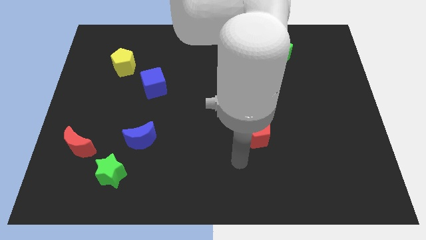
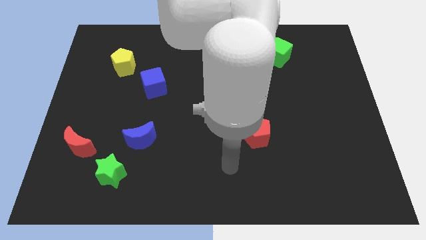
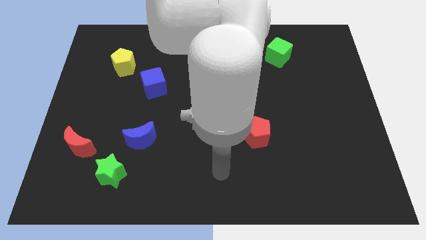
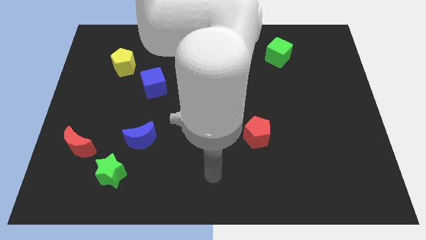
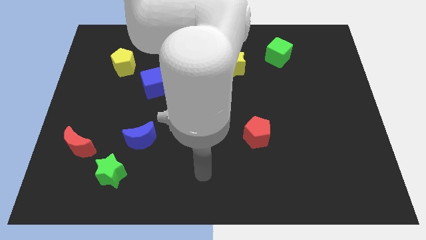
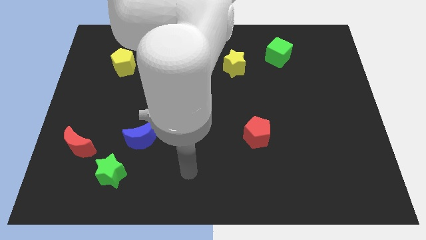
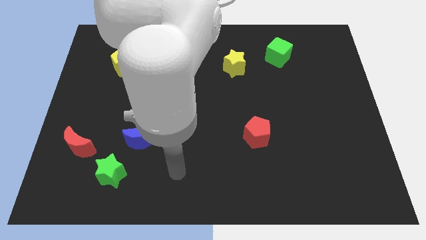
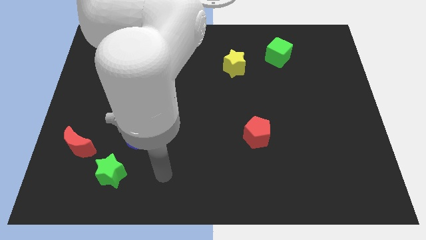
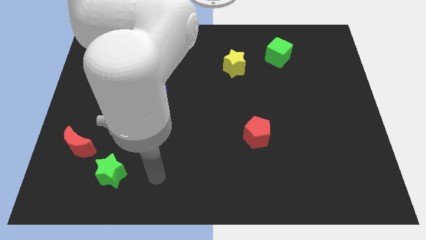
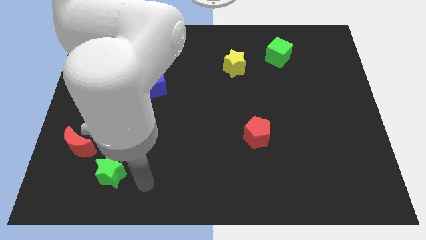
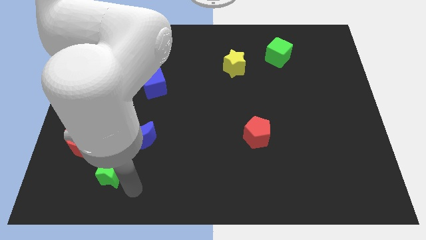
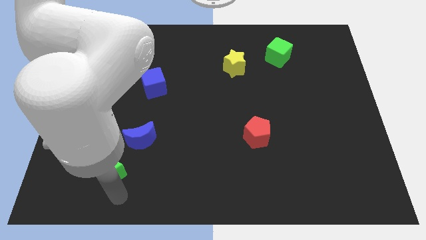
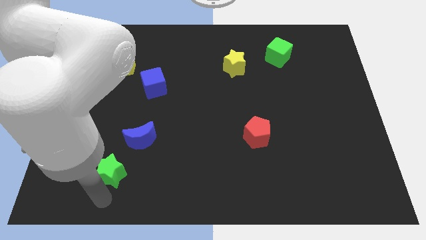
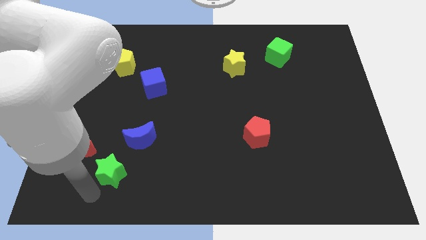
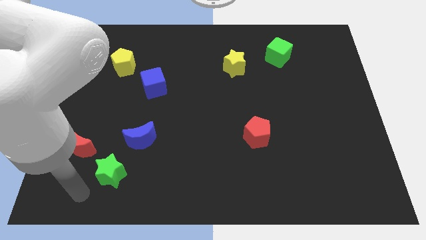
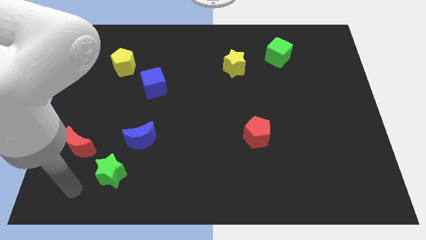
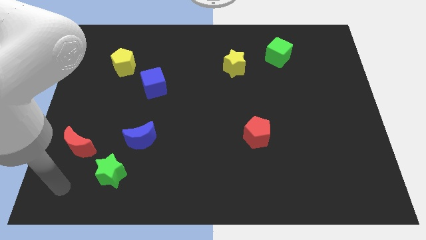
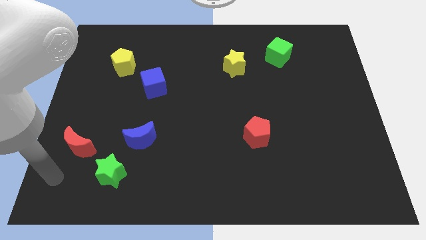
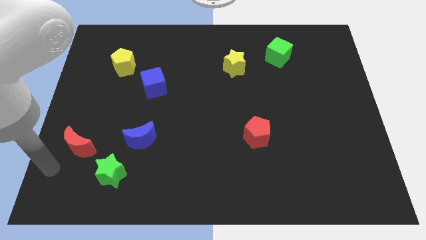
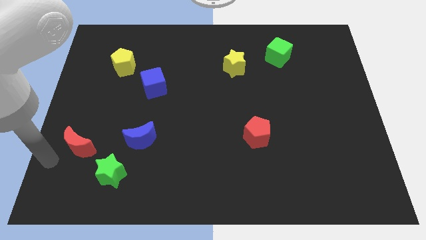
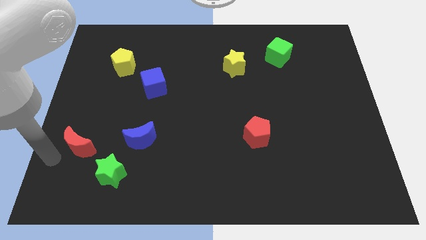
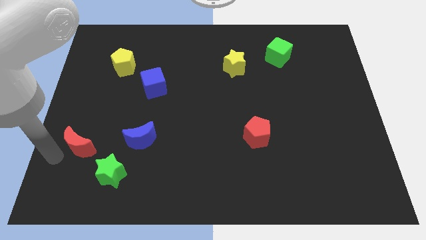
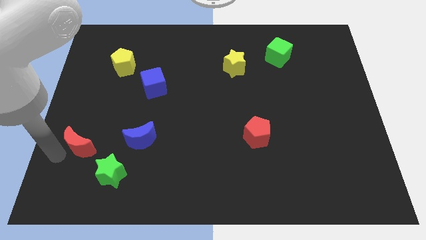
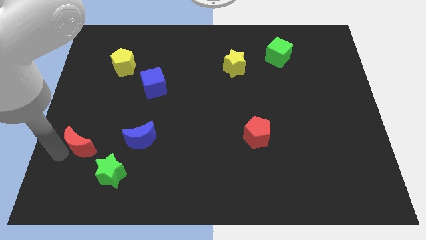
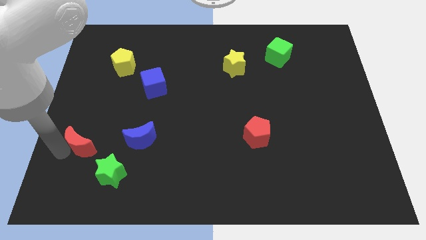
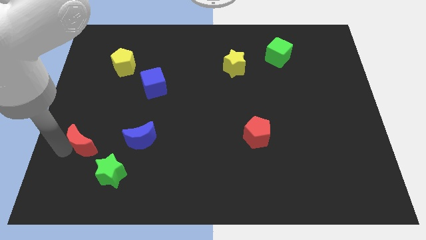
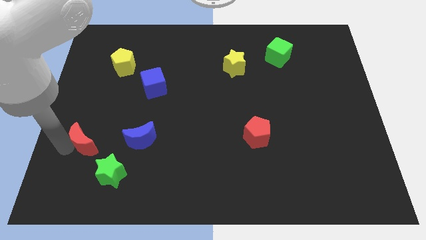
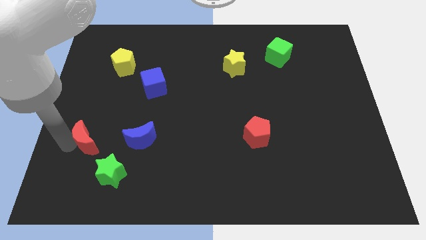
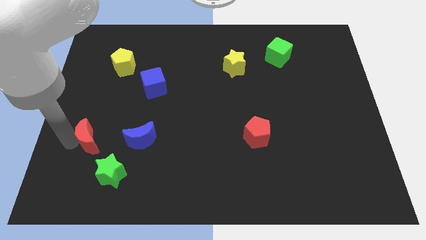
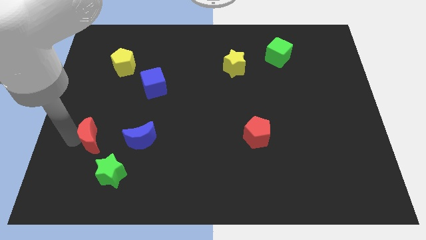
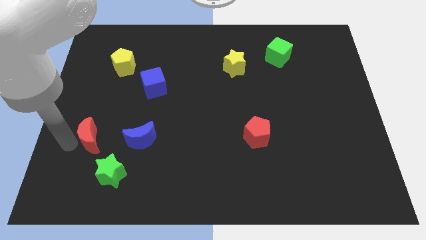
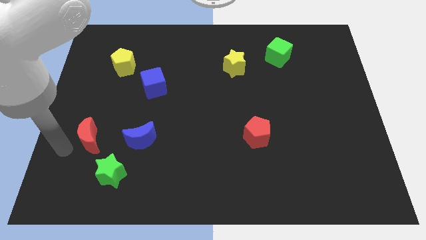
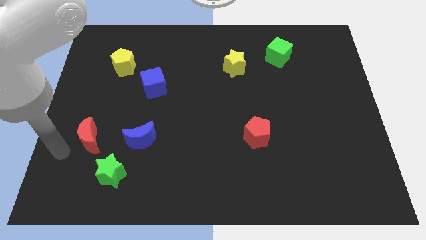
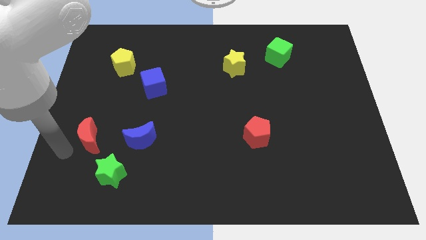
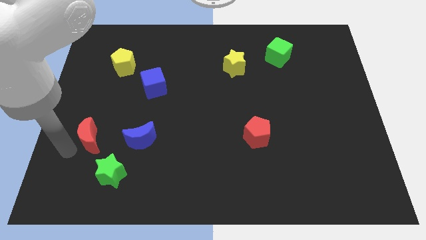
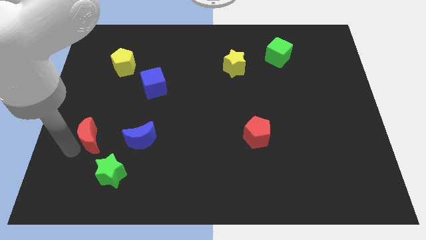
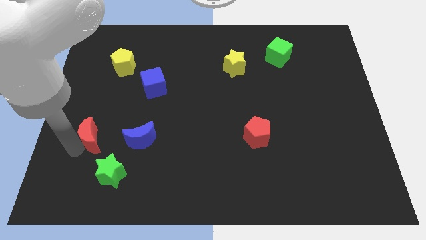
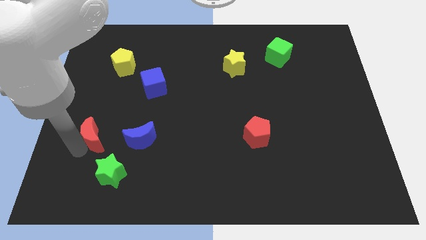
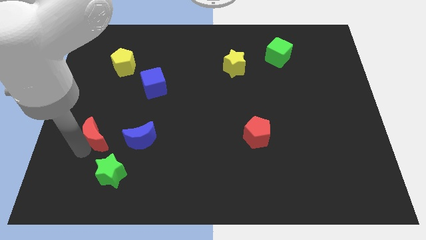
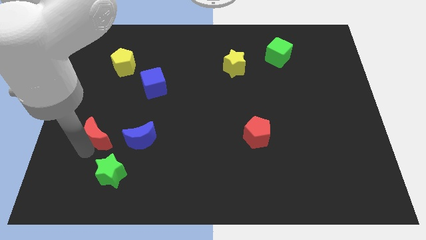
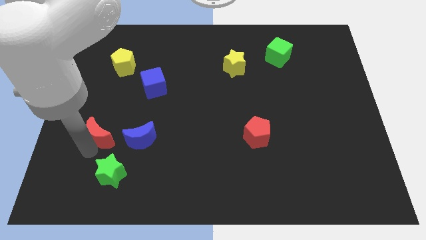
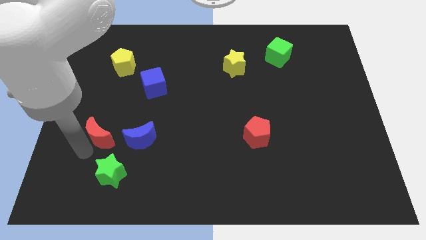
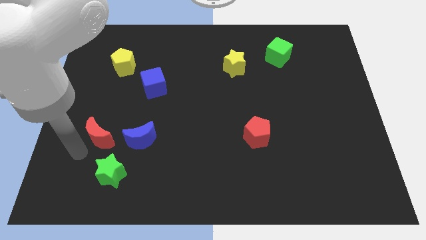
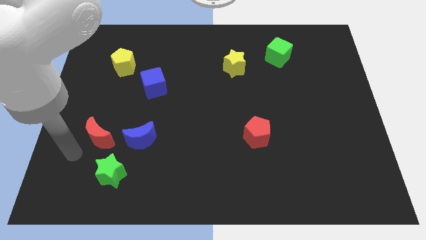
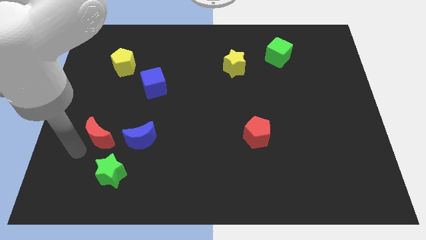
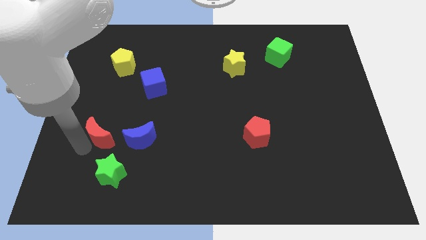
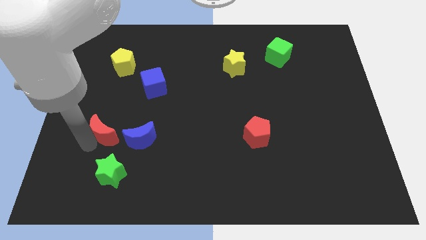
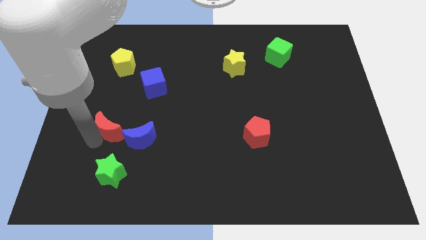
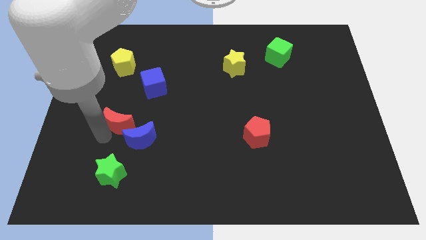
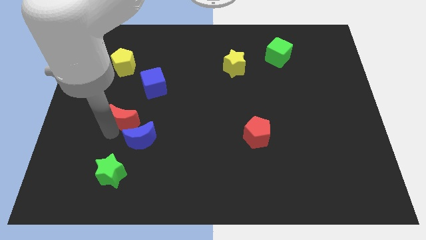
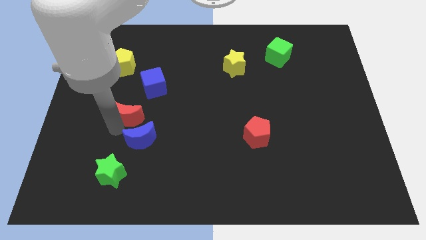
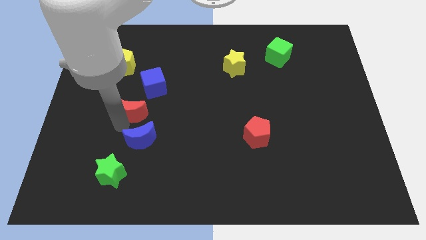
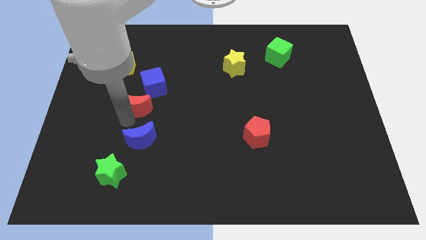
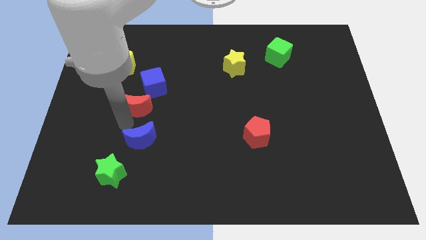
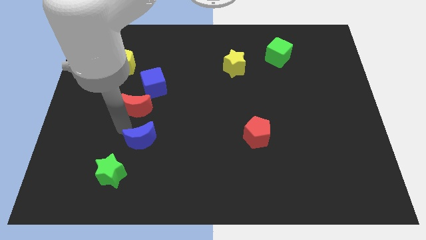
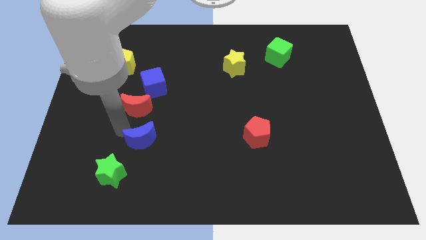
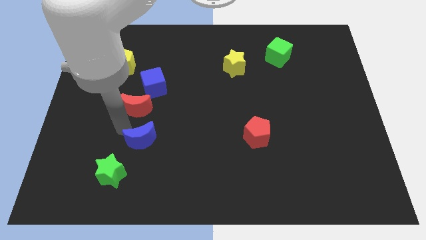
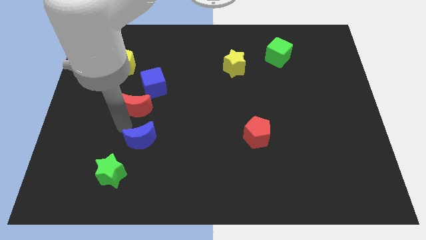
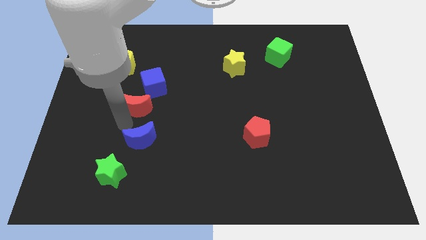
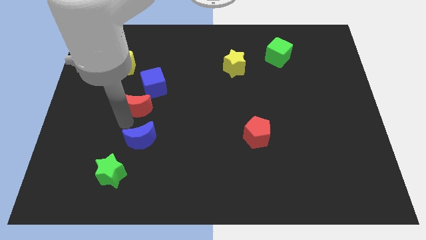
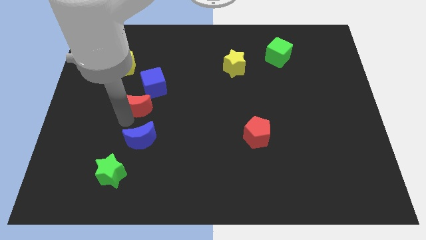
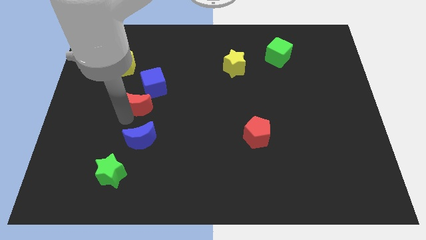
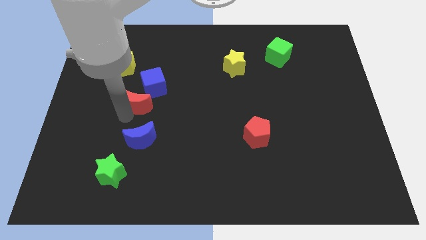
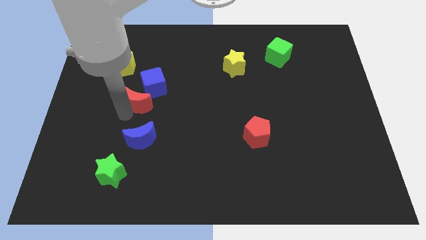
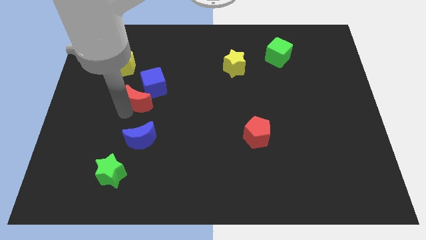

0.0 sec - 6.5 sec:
move the red moon towards the blue cube

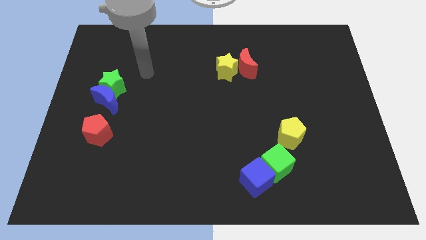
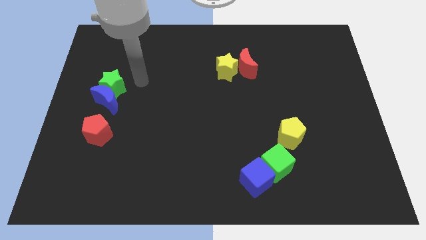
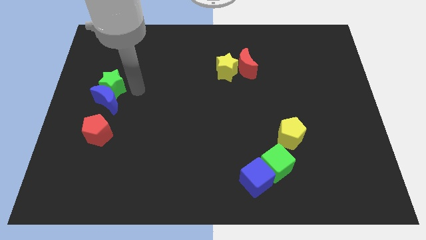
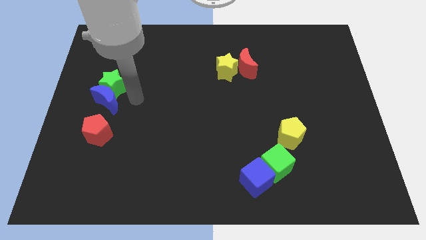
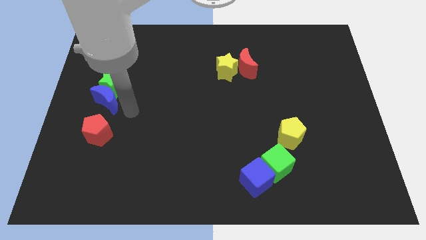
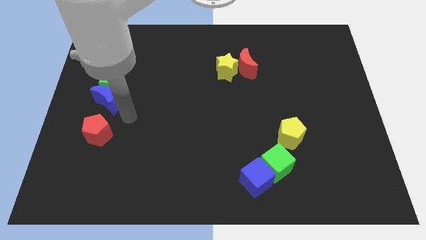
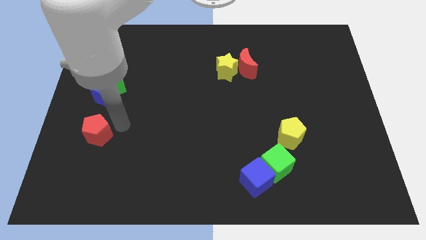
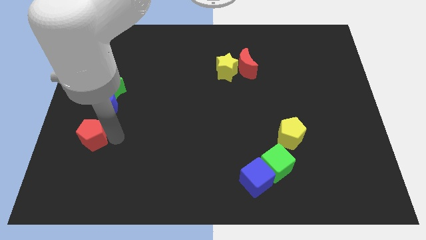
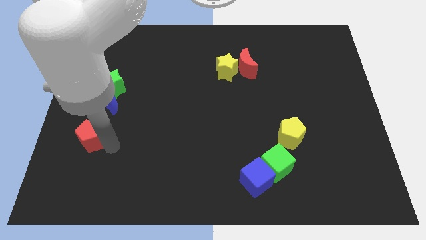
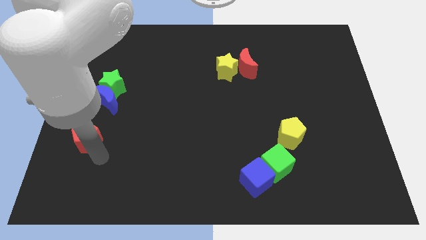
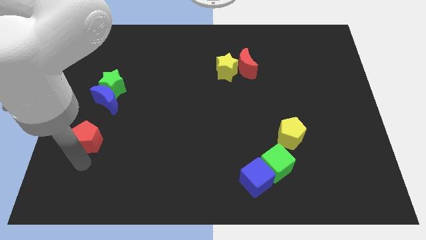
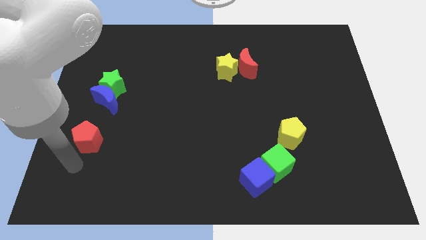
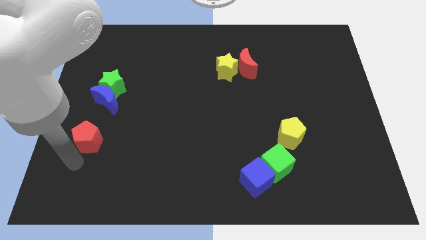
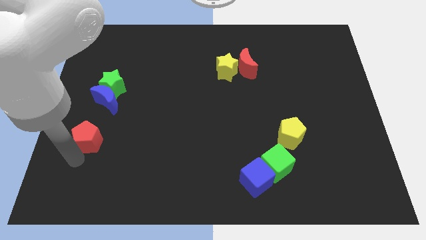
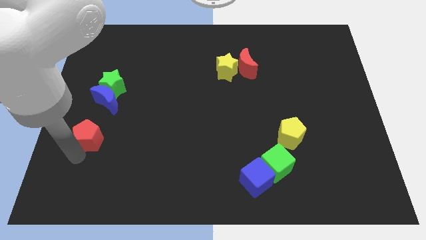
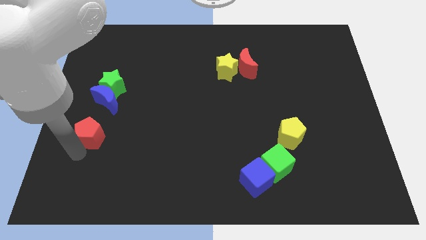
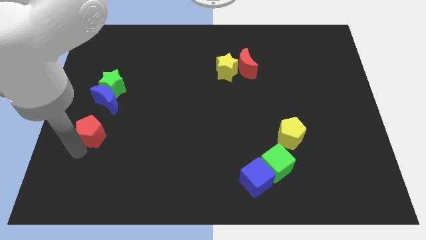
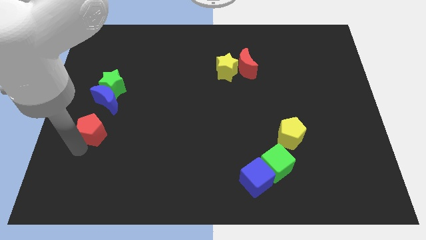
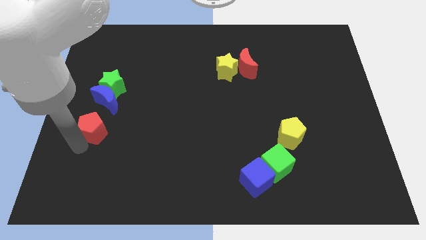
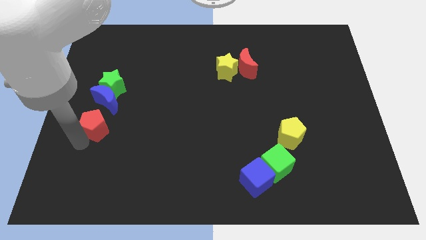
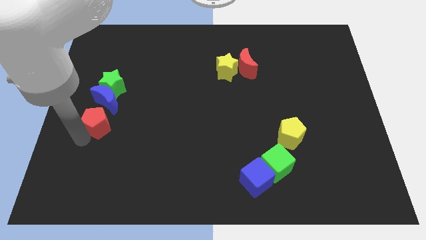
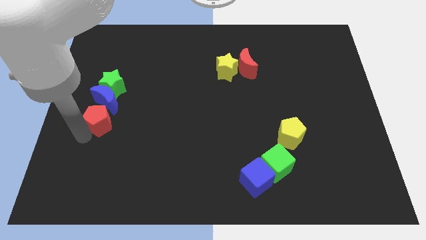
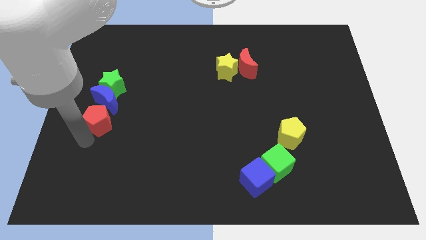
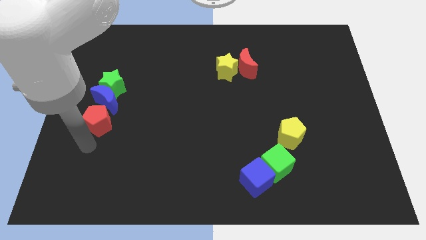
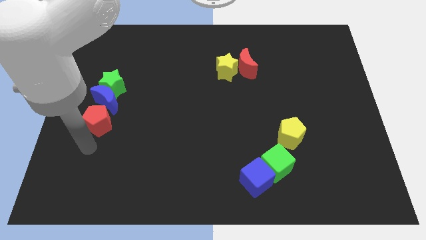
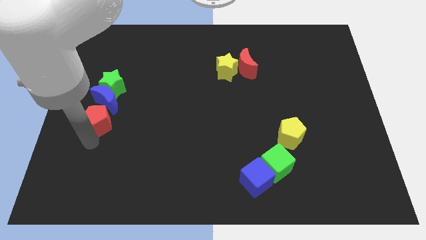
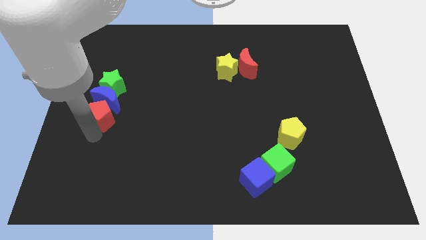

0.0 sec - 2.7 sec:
put the red pentagon to the blue moon
